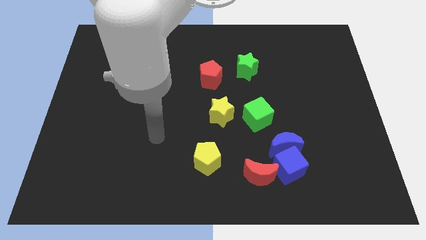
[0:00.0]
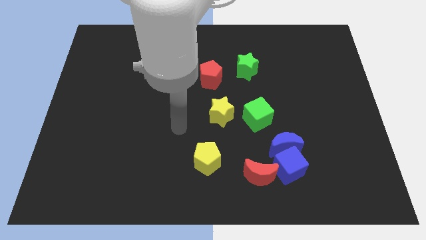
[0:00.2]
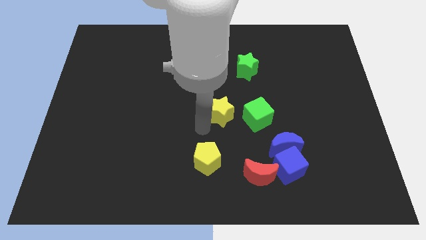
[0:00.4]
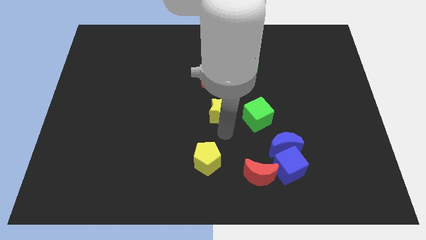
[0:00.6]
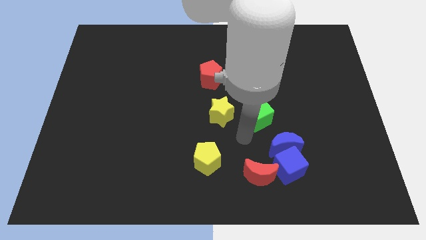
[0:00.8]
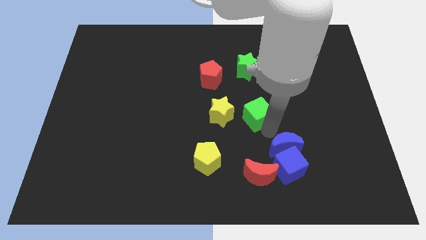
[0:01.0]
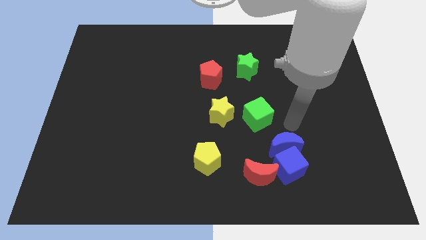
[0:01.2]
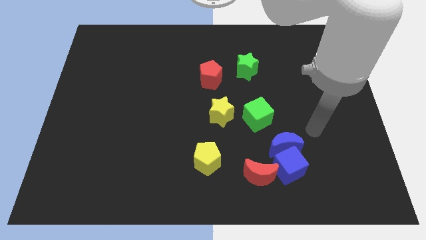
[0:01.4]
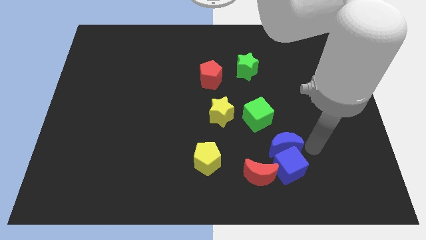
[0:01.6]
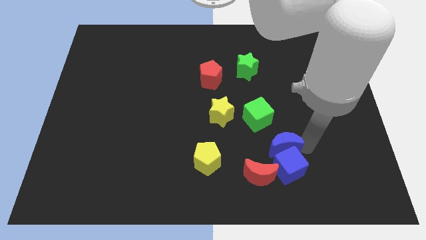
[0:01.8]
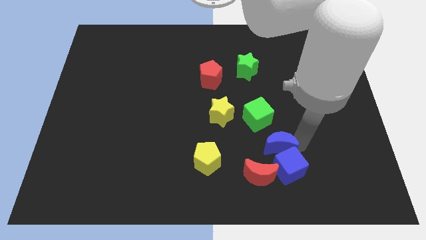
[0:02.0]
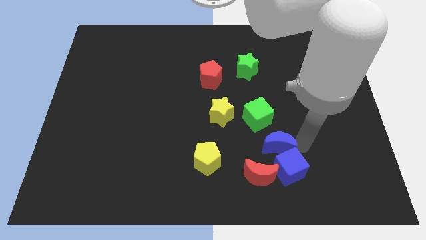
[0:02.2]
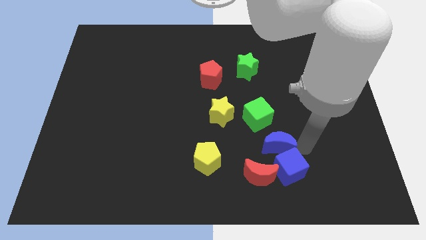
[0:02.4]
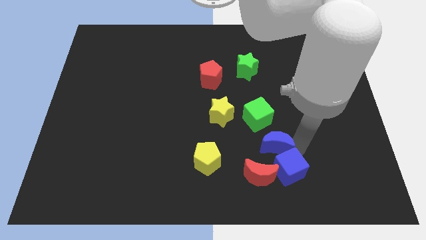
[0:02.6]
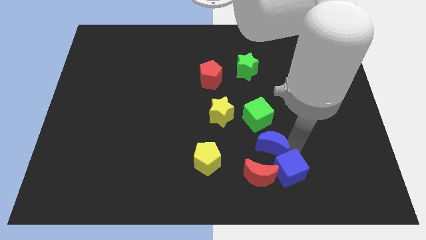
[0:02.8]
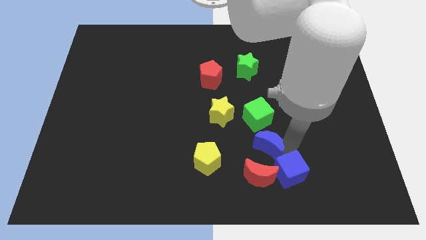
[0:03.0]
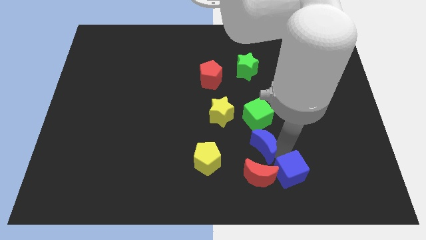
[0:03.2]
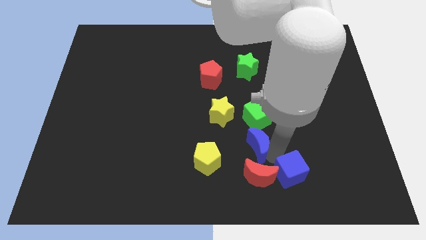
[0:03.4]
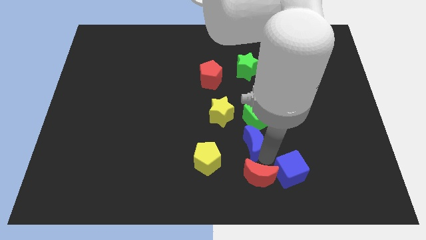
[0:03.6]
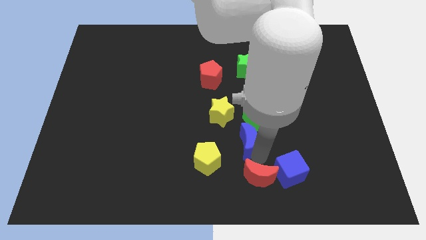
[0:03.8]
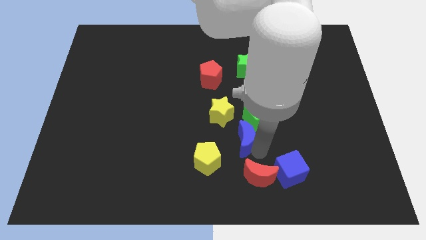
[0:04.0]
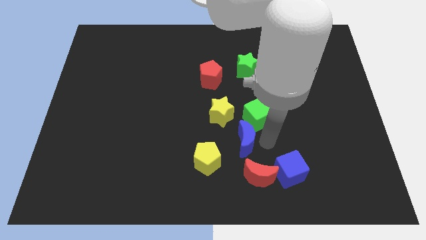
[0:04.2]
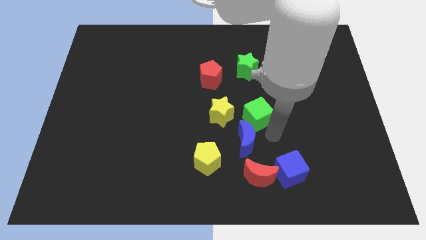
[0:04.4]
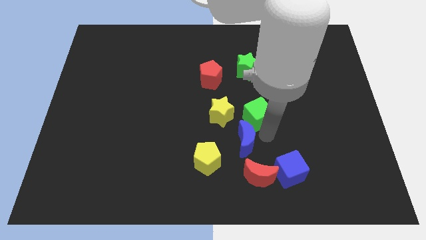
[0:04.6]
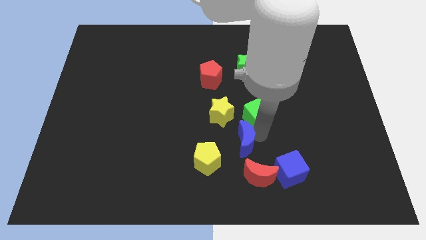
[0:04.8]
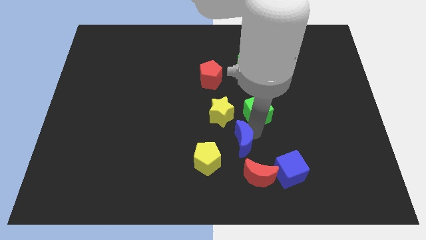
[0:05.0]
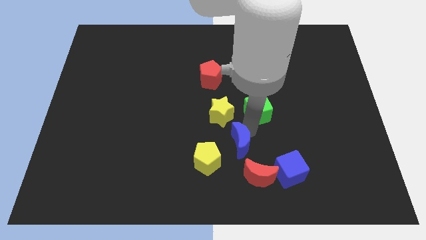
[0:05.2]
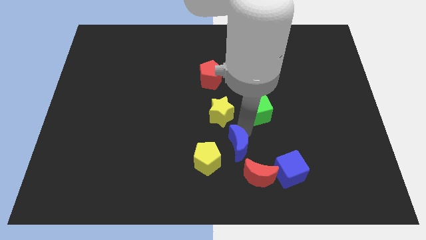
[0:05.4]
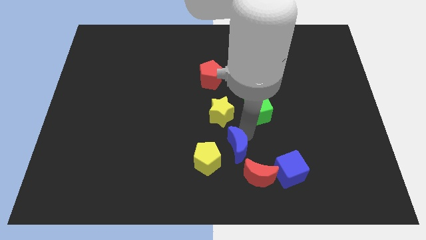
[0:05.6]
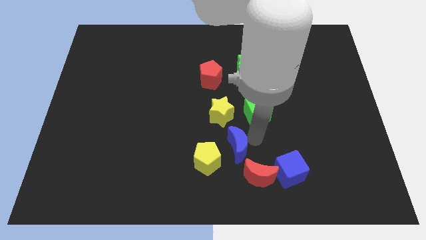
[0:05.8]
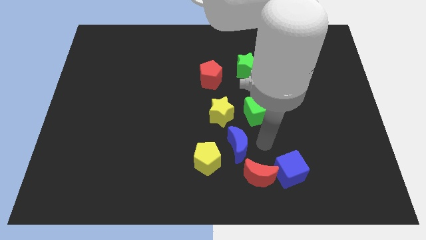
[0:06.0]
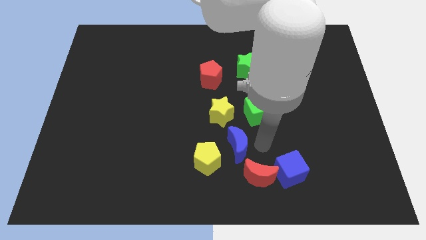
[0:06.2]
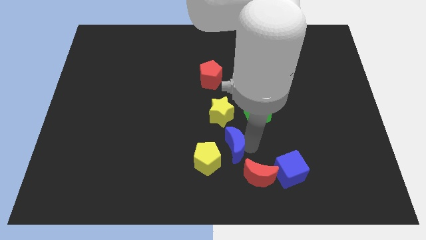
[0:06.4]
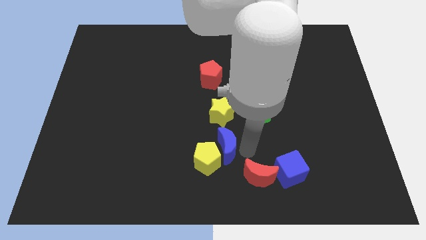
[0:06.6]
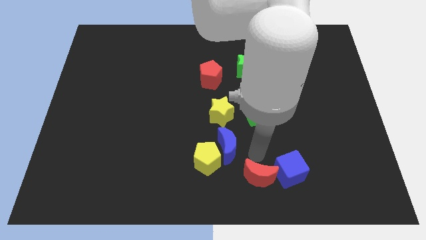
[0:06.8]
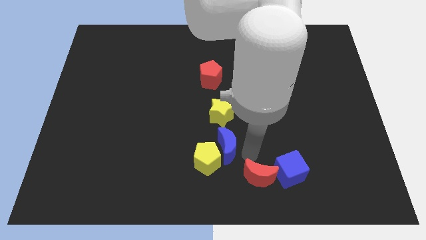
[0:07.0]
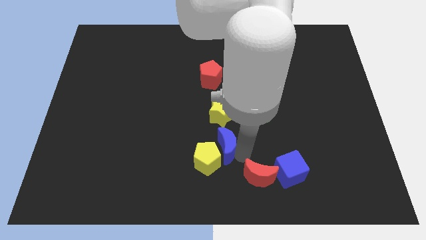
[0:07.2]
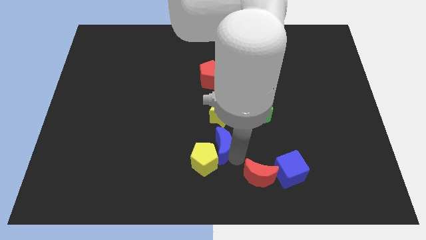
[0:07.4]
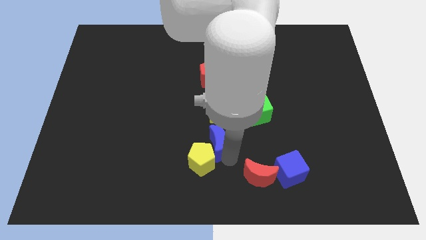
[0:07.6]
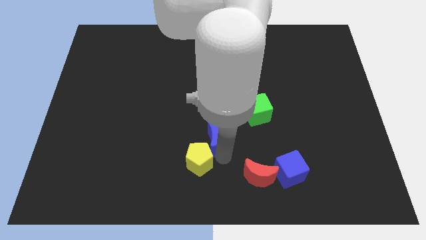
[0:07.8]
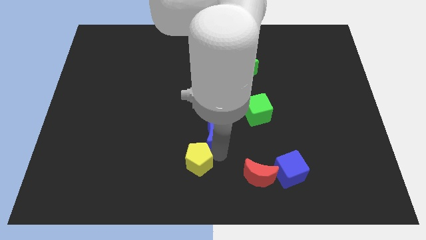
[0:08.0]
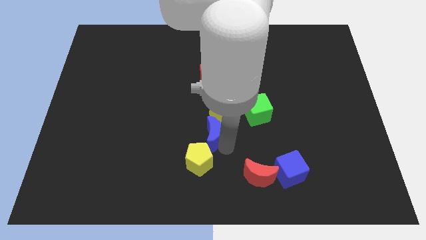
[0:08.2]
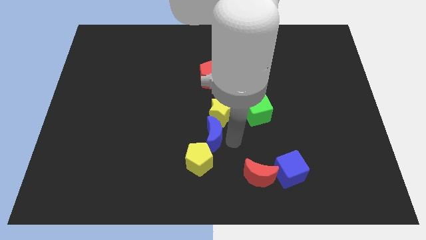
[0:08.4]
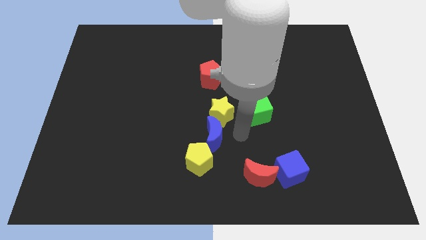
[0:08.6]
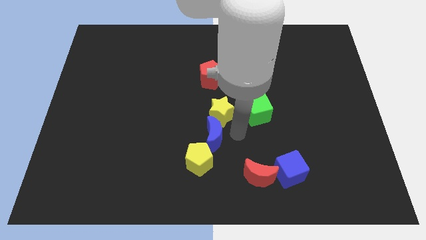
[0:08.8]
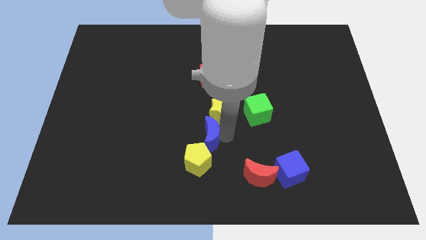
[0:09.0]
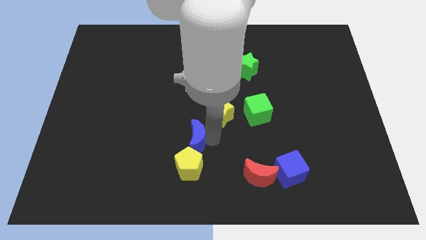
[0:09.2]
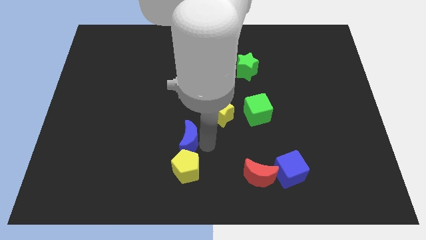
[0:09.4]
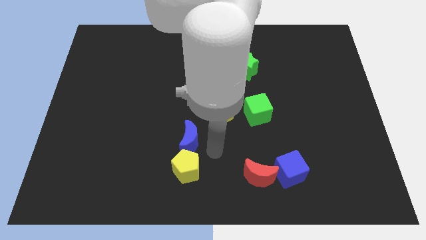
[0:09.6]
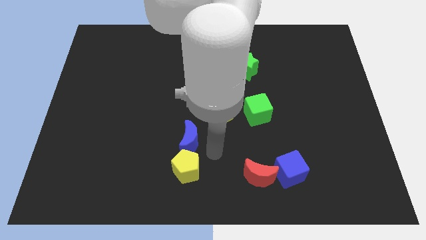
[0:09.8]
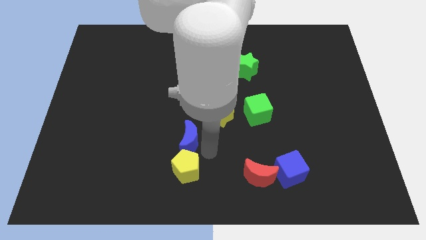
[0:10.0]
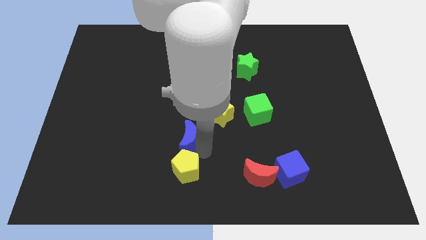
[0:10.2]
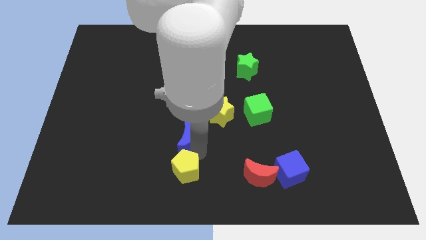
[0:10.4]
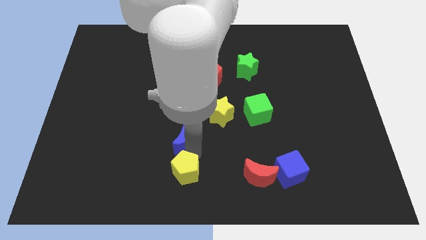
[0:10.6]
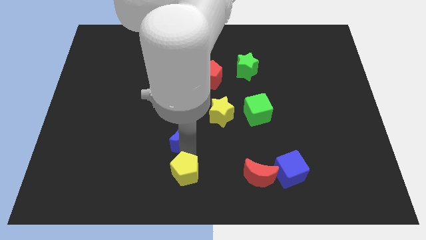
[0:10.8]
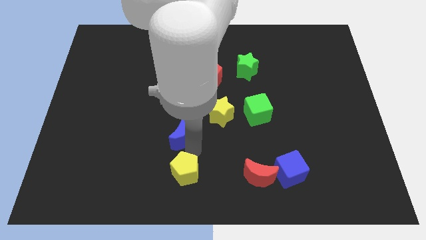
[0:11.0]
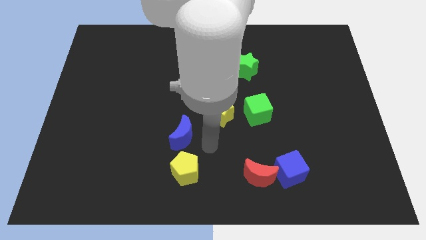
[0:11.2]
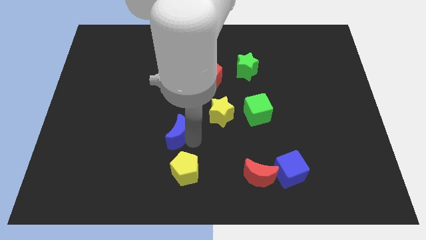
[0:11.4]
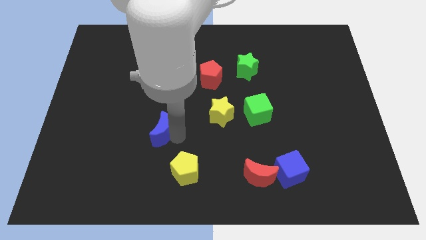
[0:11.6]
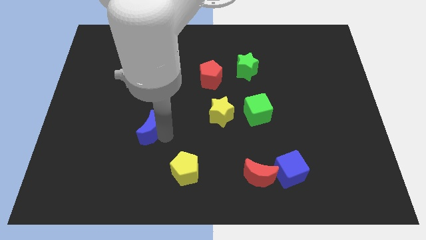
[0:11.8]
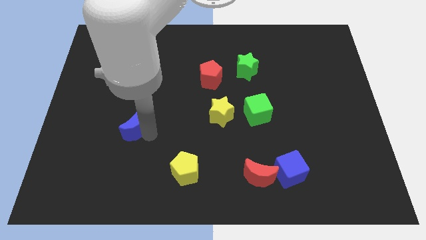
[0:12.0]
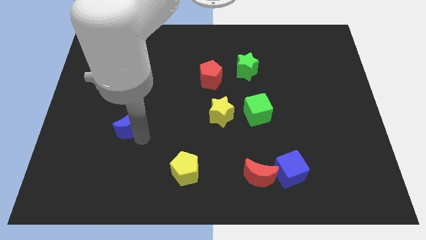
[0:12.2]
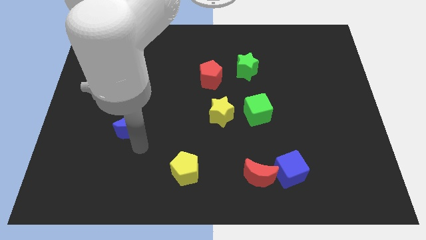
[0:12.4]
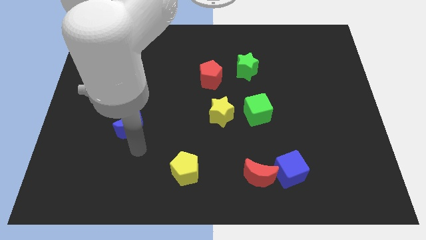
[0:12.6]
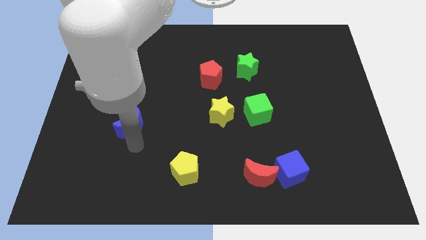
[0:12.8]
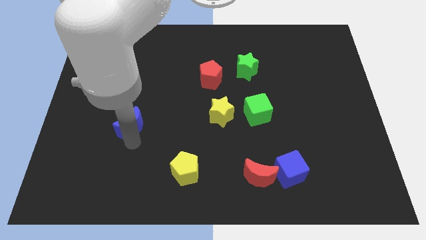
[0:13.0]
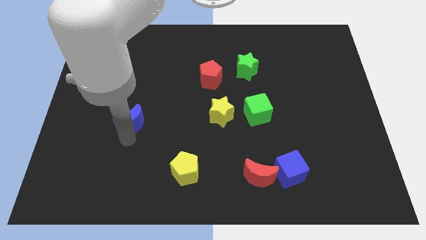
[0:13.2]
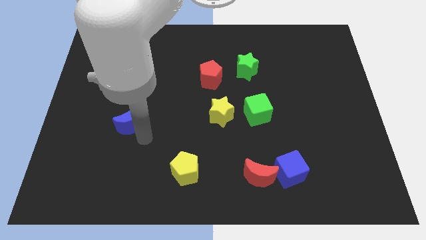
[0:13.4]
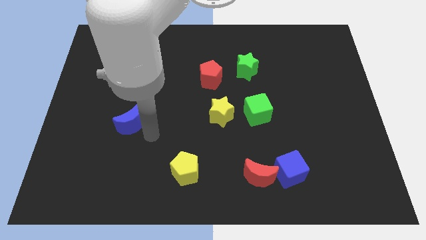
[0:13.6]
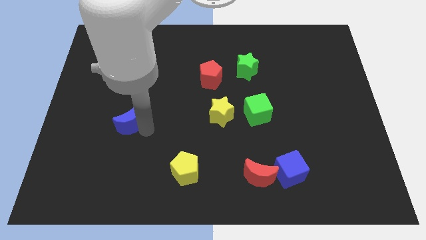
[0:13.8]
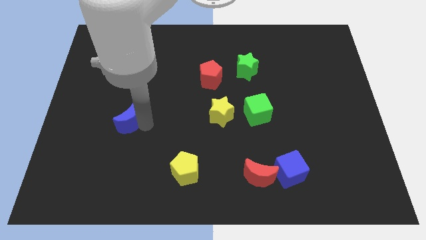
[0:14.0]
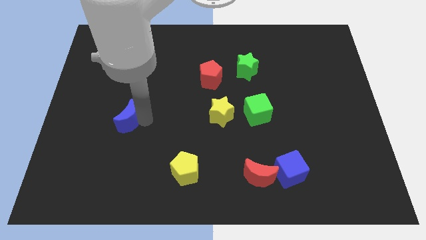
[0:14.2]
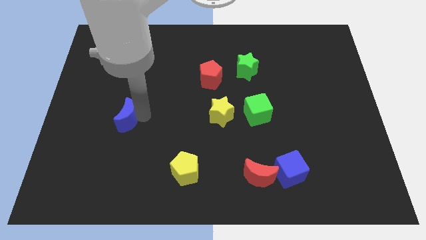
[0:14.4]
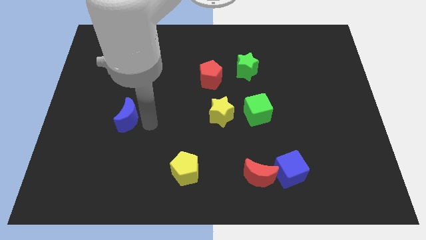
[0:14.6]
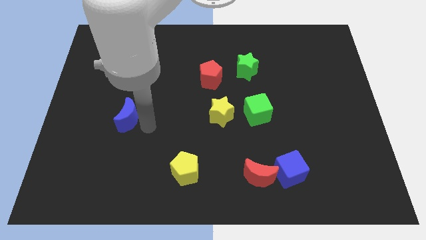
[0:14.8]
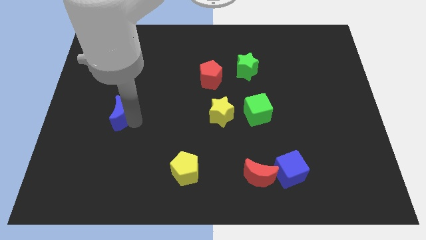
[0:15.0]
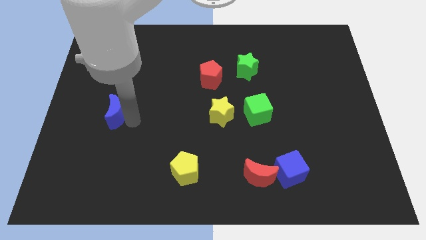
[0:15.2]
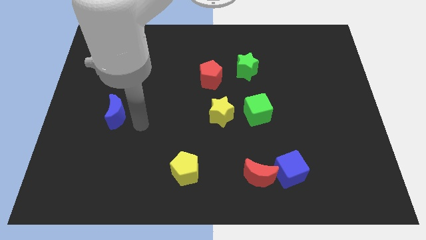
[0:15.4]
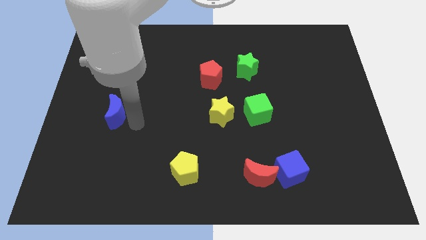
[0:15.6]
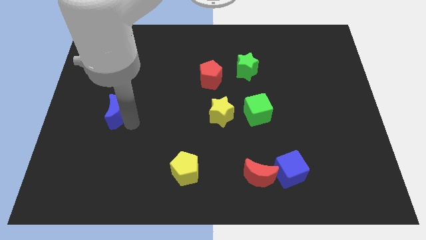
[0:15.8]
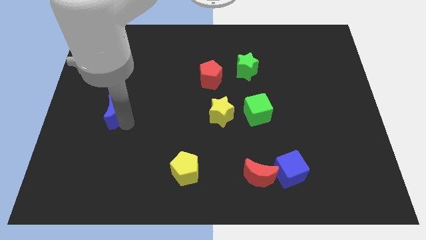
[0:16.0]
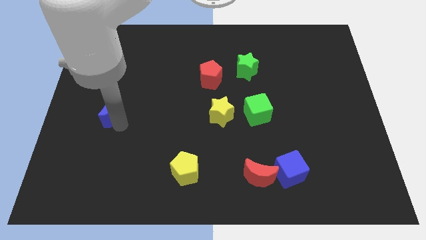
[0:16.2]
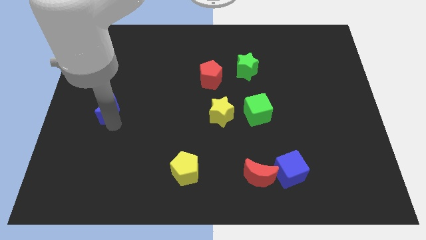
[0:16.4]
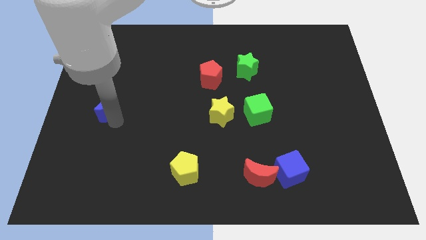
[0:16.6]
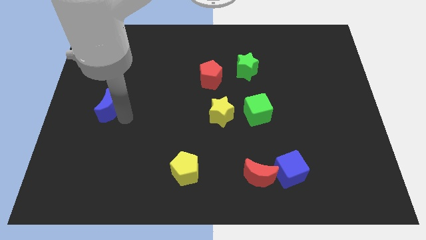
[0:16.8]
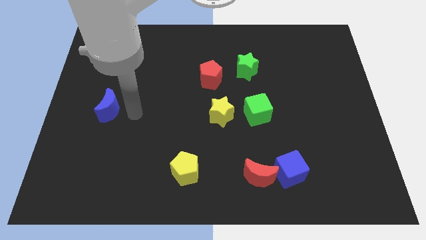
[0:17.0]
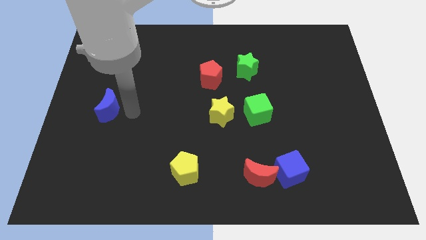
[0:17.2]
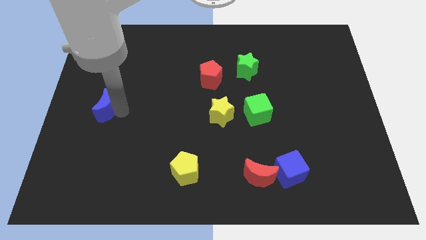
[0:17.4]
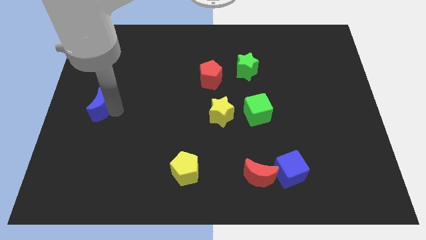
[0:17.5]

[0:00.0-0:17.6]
put the blue moon to the center left
